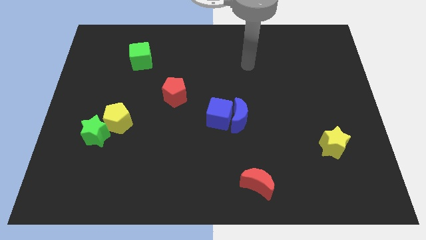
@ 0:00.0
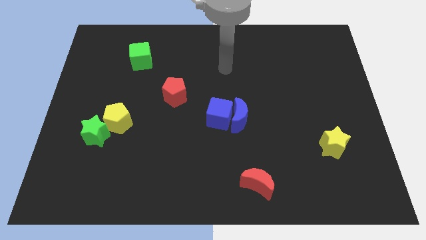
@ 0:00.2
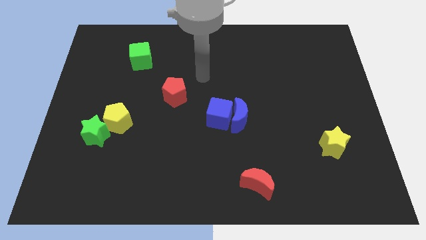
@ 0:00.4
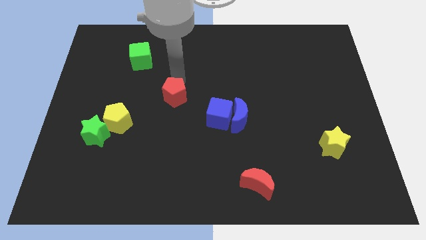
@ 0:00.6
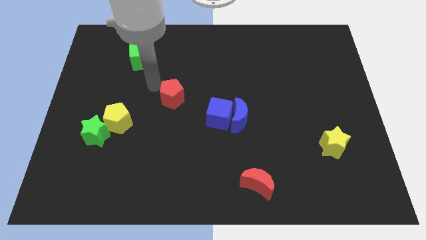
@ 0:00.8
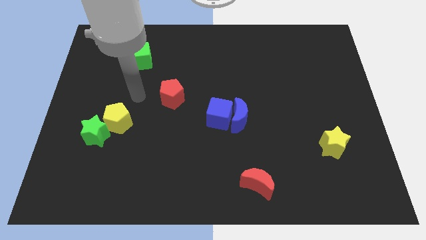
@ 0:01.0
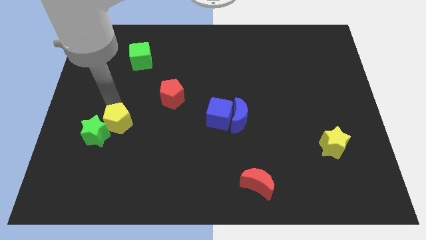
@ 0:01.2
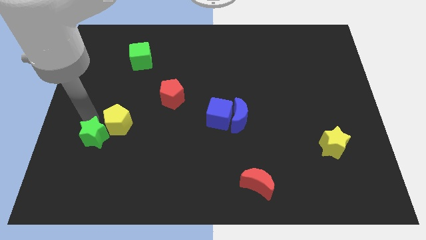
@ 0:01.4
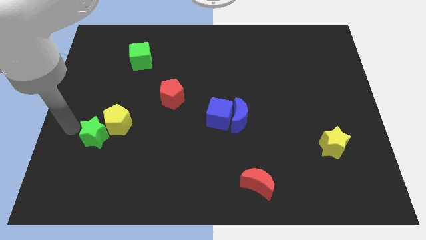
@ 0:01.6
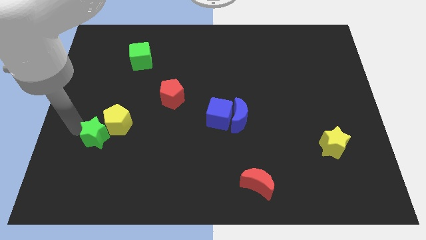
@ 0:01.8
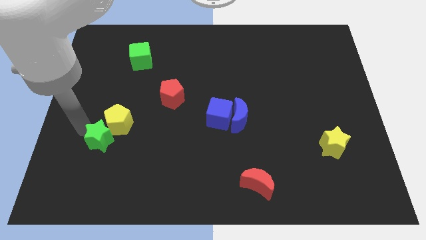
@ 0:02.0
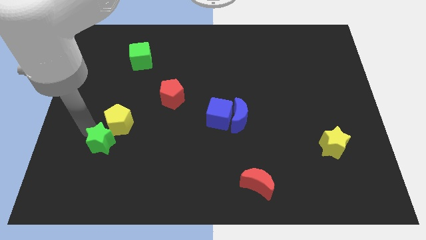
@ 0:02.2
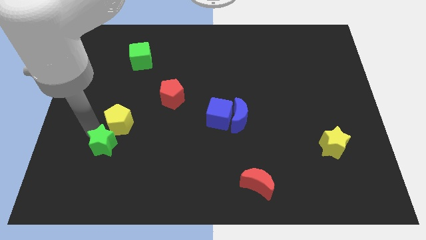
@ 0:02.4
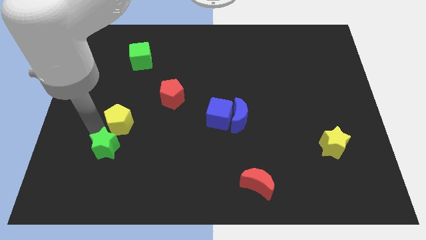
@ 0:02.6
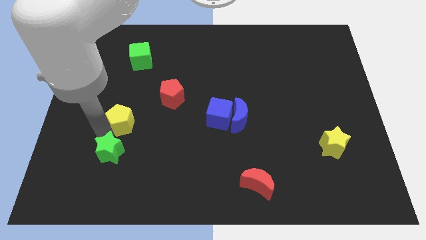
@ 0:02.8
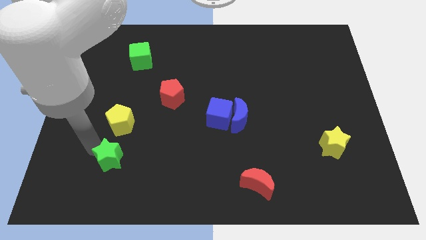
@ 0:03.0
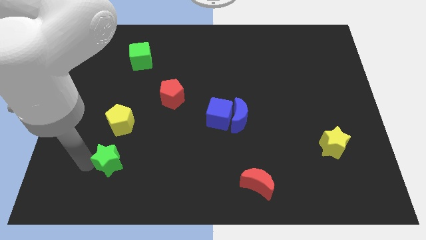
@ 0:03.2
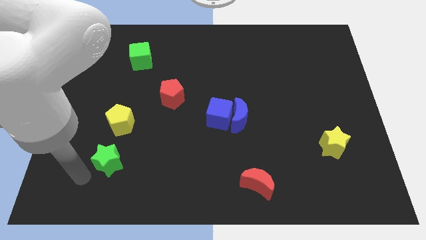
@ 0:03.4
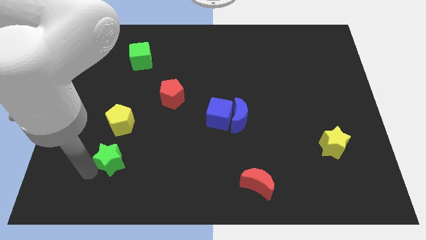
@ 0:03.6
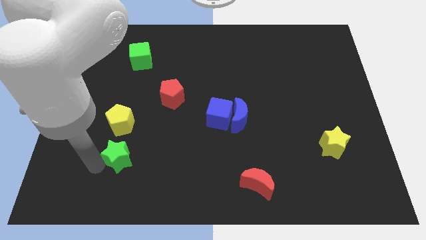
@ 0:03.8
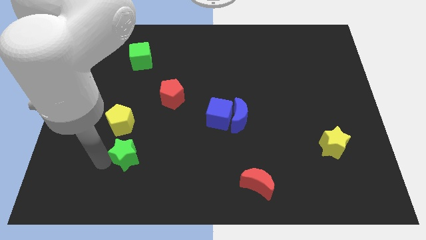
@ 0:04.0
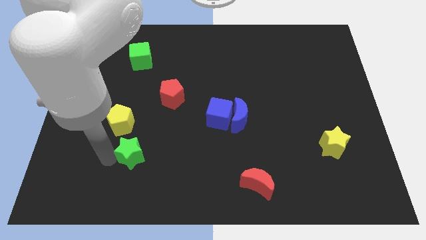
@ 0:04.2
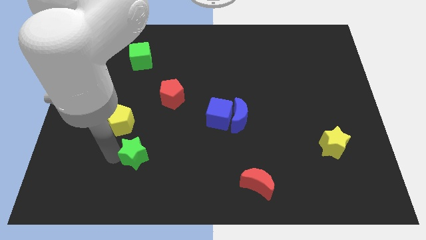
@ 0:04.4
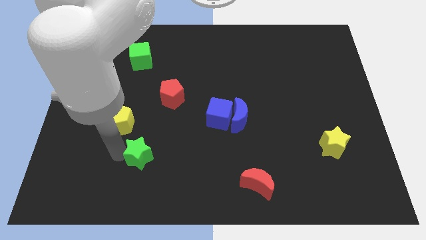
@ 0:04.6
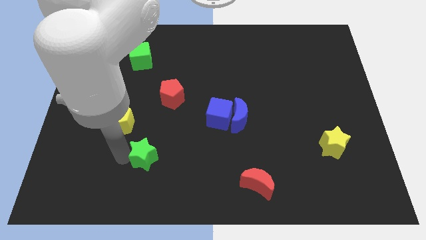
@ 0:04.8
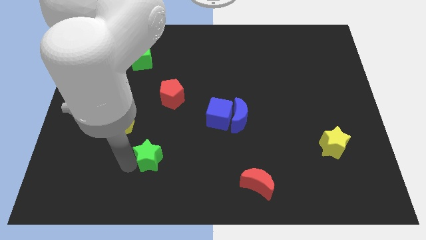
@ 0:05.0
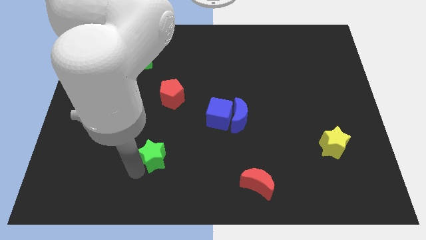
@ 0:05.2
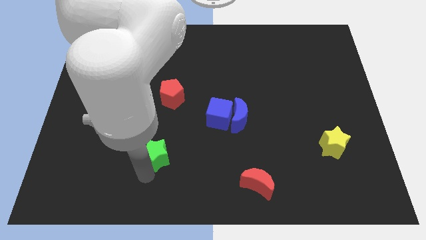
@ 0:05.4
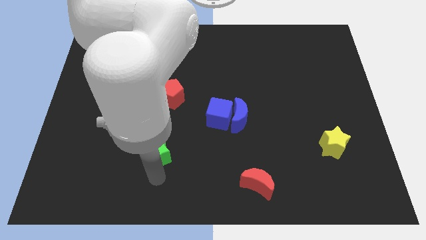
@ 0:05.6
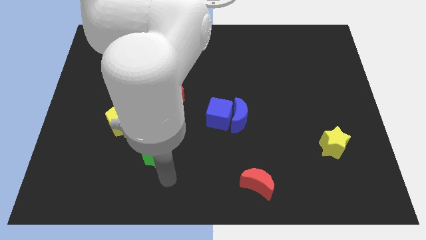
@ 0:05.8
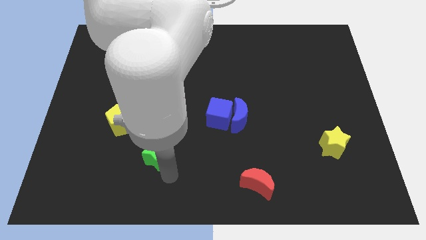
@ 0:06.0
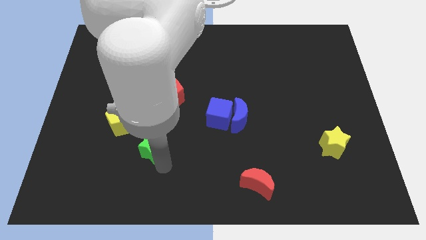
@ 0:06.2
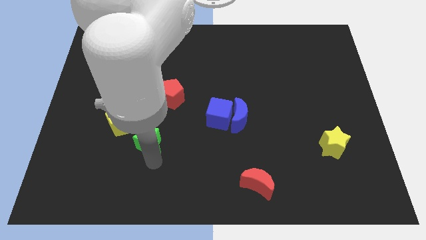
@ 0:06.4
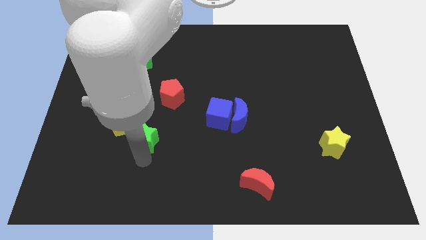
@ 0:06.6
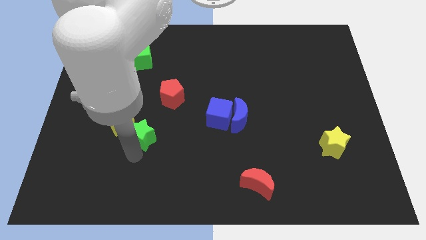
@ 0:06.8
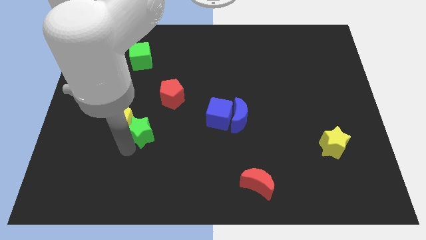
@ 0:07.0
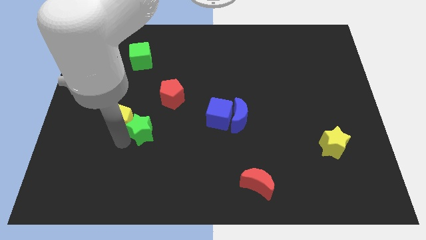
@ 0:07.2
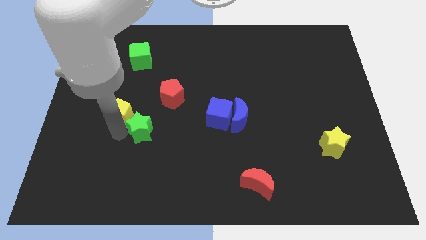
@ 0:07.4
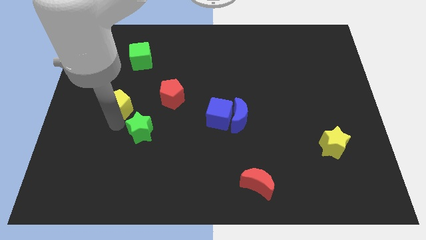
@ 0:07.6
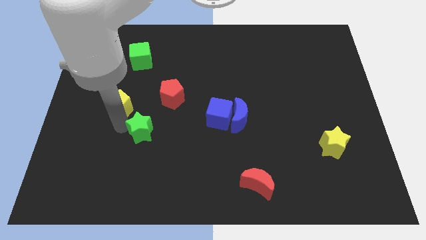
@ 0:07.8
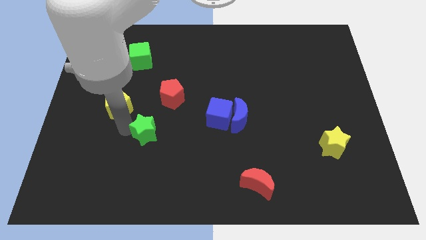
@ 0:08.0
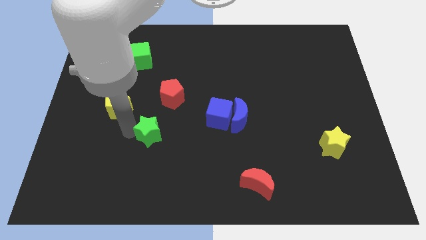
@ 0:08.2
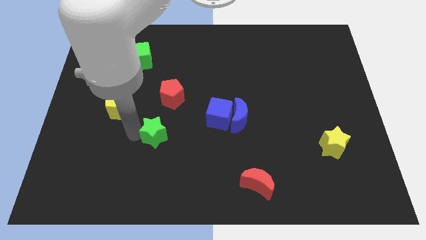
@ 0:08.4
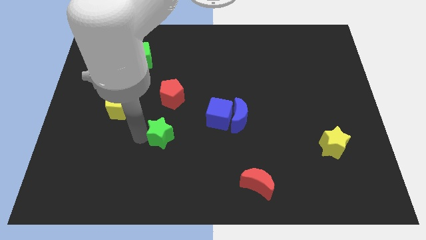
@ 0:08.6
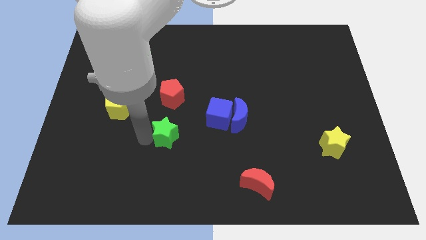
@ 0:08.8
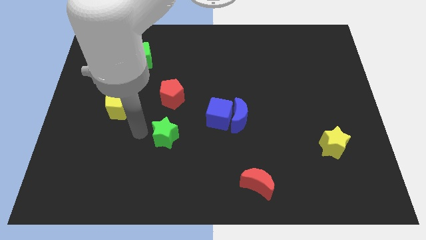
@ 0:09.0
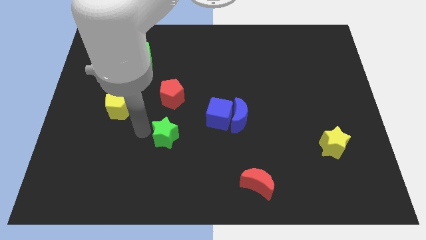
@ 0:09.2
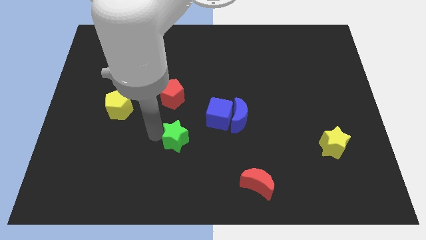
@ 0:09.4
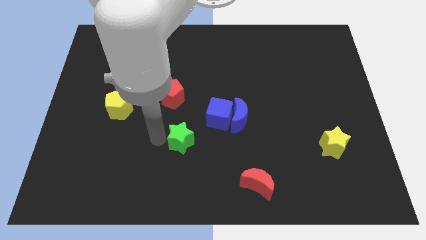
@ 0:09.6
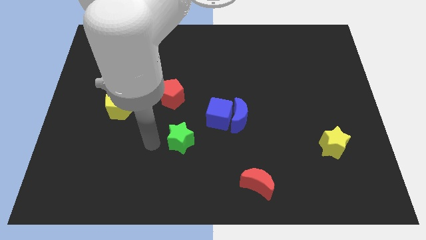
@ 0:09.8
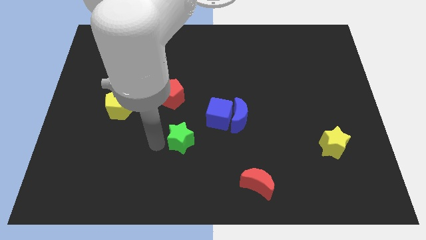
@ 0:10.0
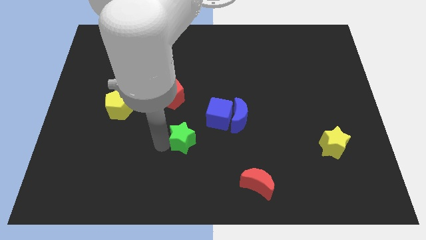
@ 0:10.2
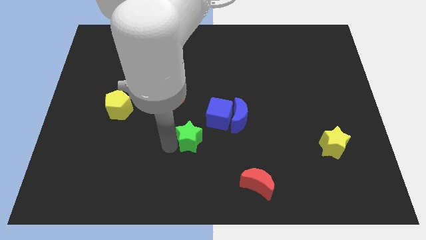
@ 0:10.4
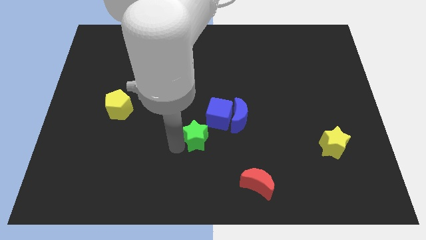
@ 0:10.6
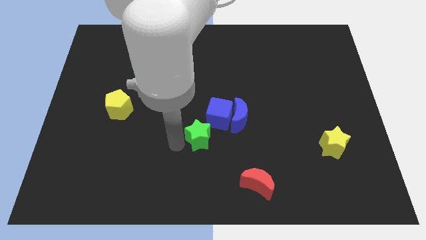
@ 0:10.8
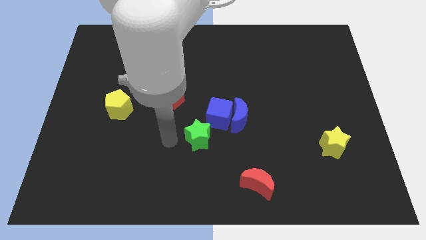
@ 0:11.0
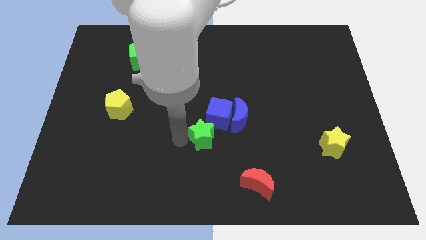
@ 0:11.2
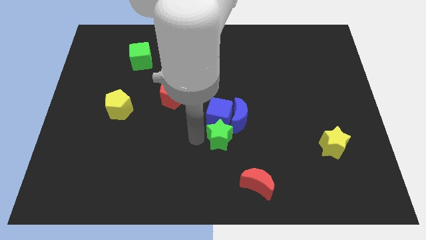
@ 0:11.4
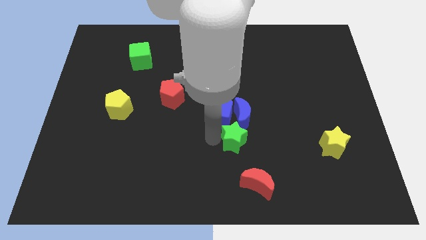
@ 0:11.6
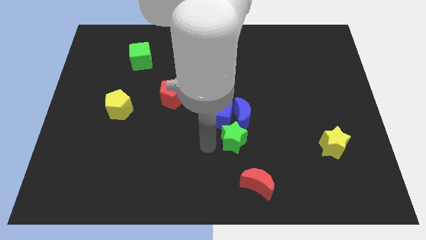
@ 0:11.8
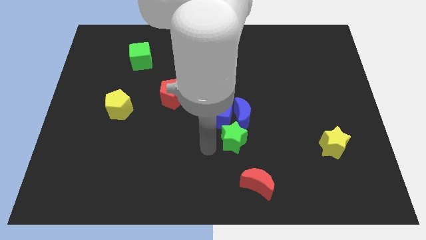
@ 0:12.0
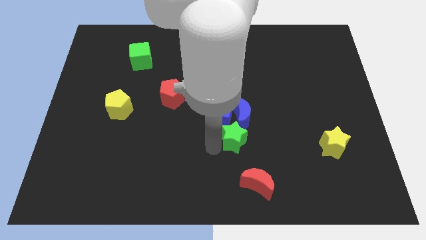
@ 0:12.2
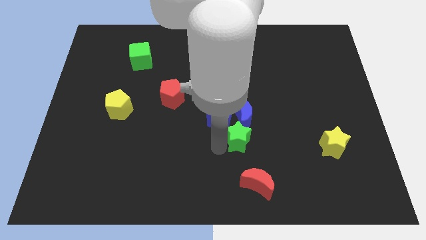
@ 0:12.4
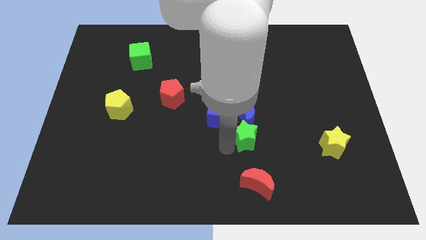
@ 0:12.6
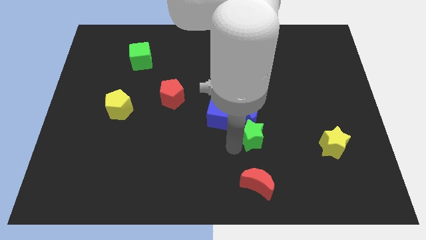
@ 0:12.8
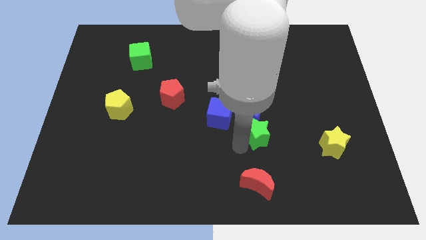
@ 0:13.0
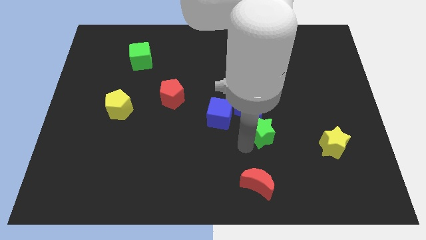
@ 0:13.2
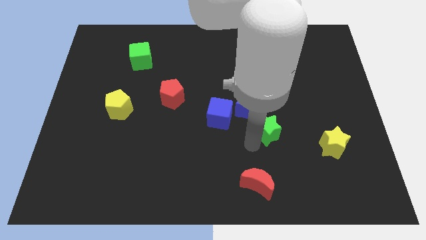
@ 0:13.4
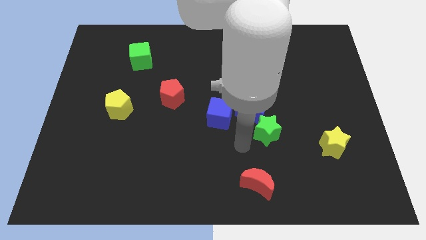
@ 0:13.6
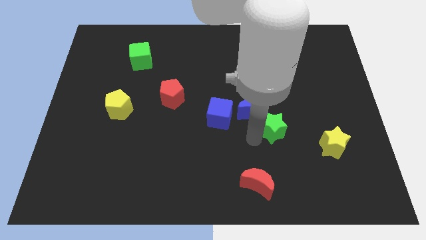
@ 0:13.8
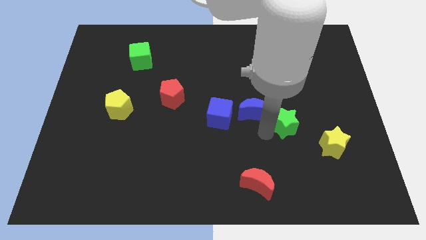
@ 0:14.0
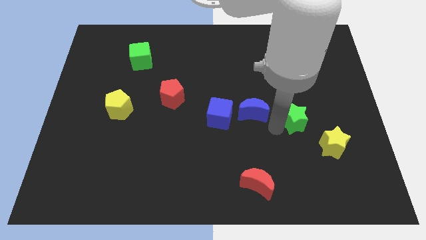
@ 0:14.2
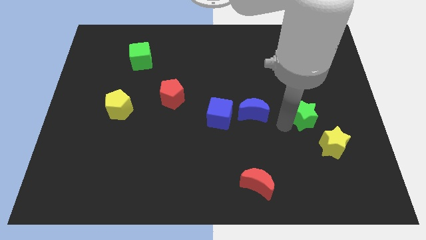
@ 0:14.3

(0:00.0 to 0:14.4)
put the green star above the yellow star

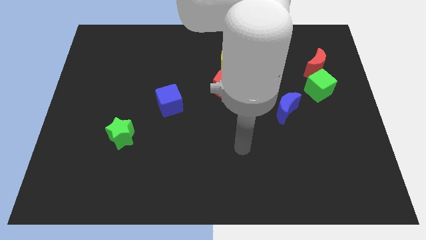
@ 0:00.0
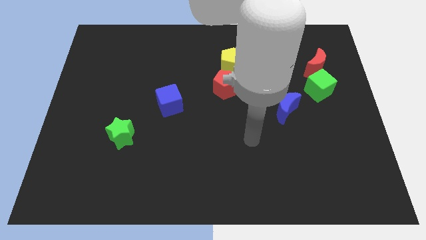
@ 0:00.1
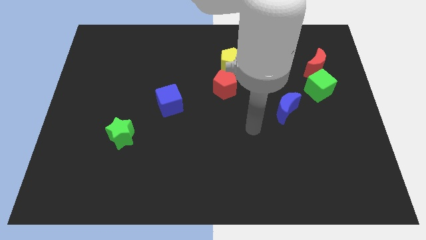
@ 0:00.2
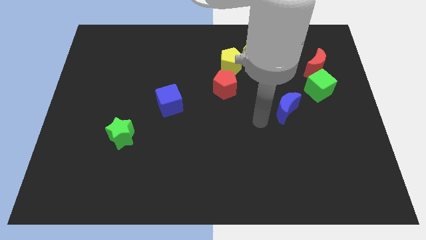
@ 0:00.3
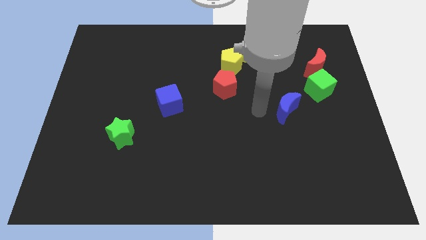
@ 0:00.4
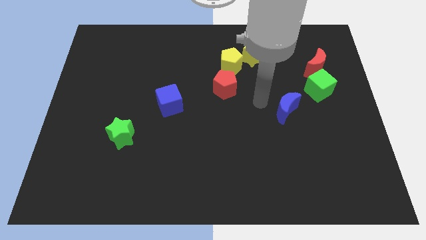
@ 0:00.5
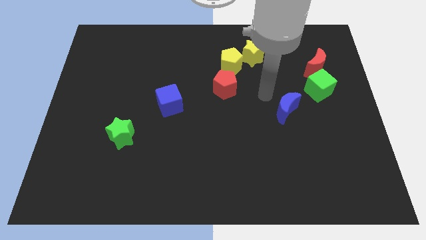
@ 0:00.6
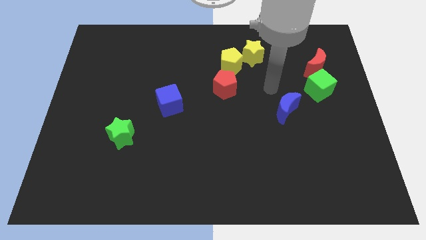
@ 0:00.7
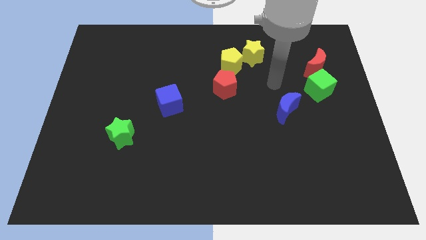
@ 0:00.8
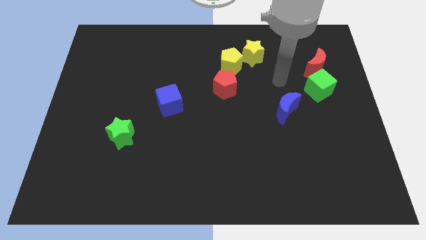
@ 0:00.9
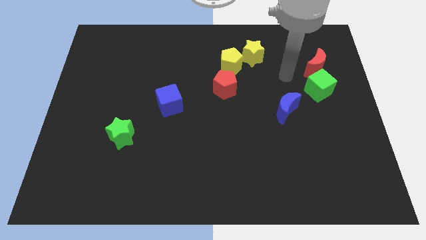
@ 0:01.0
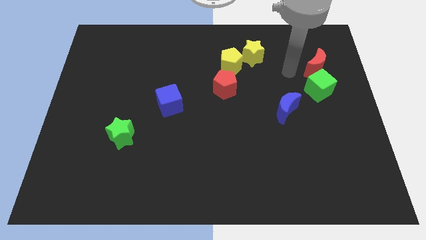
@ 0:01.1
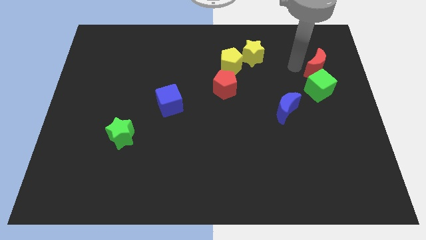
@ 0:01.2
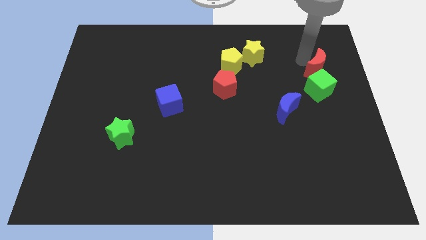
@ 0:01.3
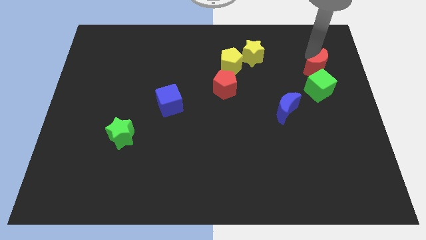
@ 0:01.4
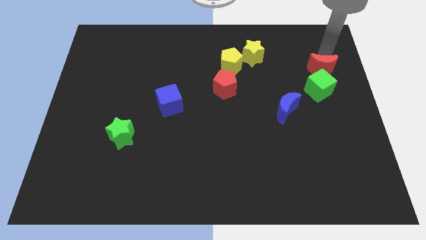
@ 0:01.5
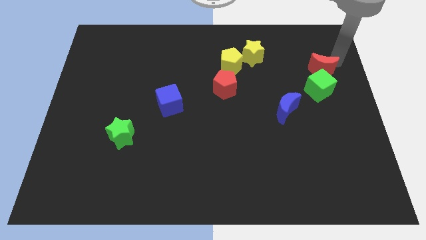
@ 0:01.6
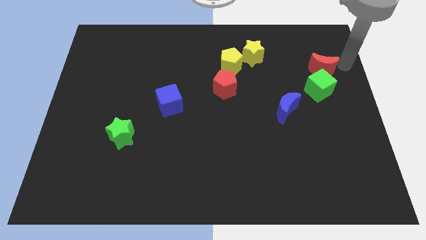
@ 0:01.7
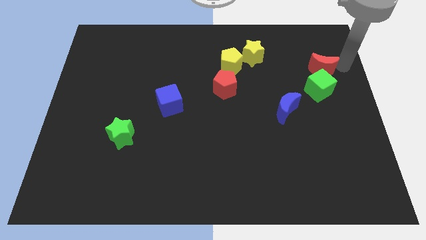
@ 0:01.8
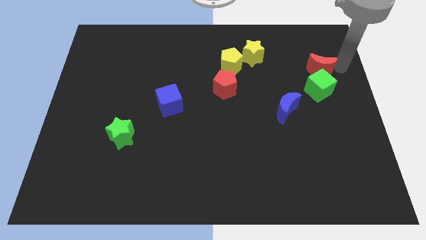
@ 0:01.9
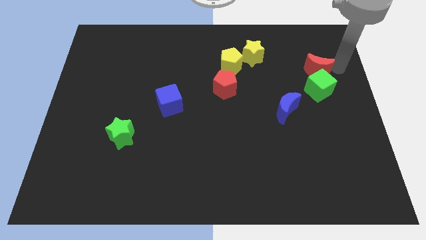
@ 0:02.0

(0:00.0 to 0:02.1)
slide the red moon diagonally up and to the left of the green cube
